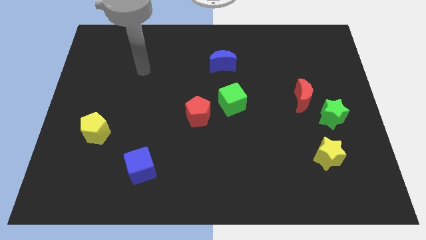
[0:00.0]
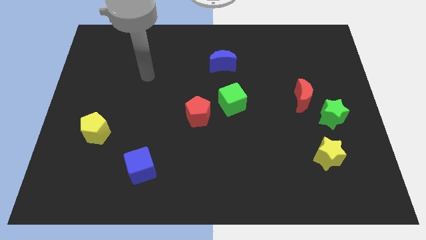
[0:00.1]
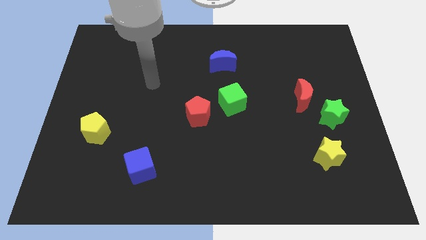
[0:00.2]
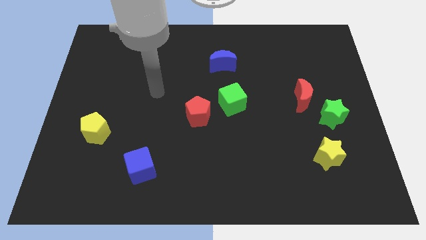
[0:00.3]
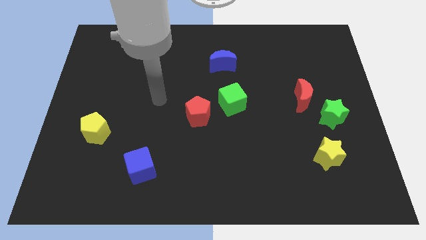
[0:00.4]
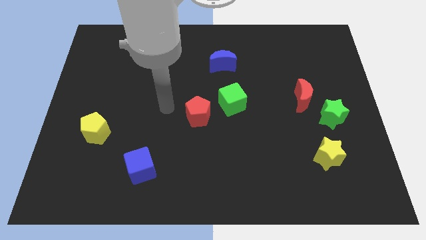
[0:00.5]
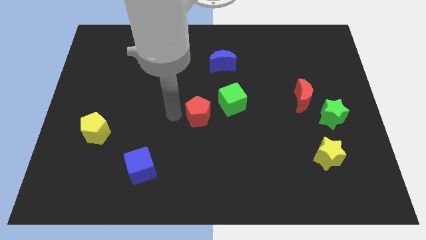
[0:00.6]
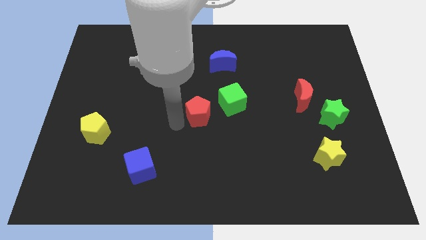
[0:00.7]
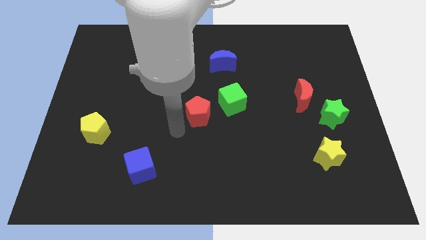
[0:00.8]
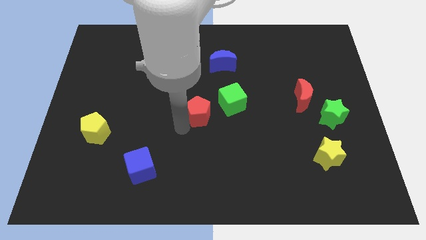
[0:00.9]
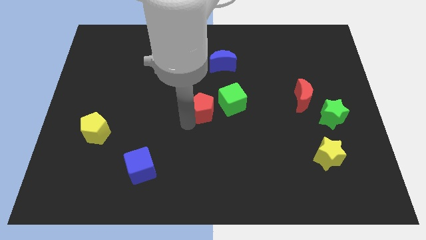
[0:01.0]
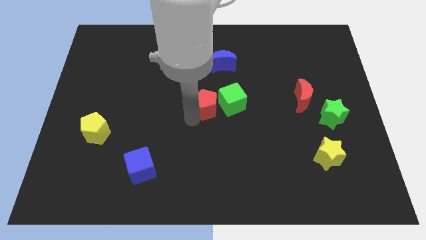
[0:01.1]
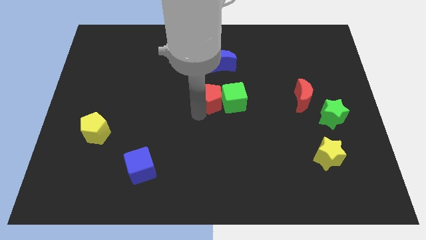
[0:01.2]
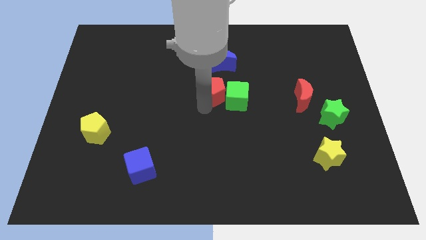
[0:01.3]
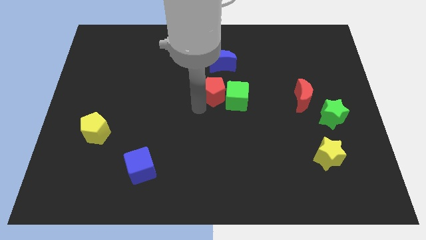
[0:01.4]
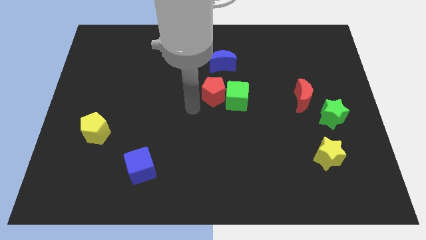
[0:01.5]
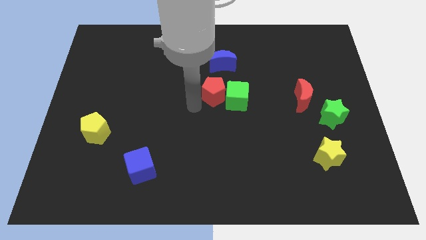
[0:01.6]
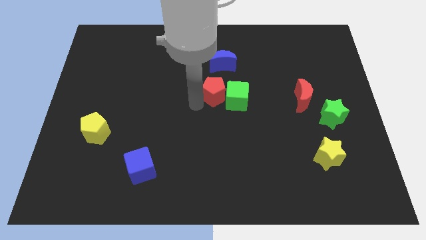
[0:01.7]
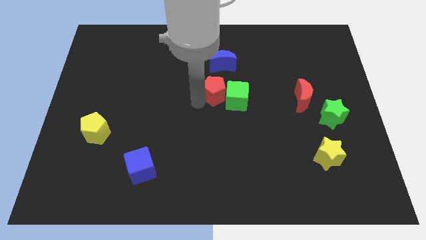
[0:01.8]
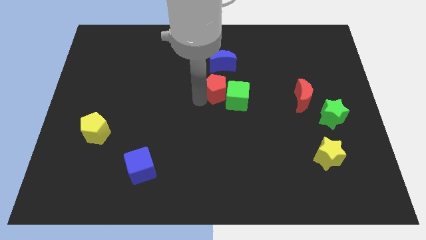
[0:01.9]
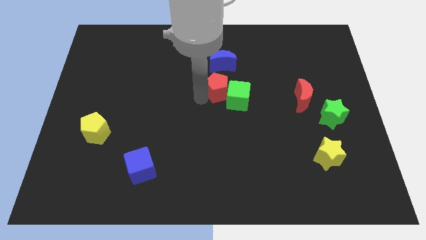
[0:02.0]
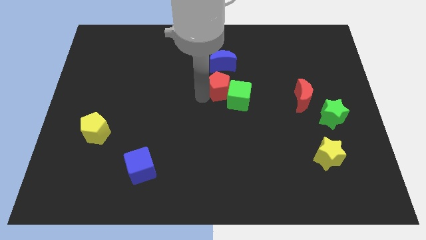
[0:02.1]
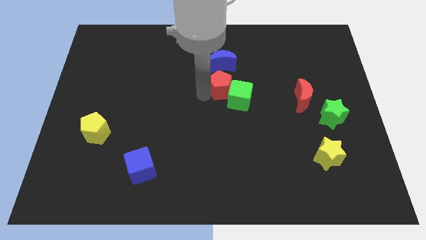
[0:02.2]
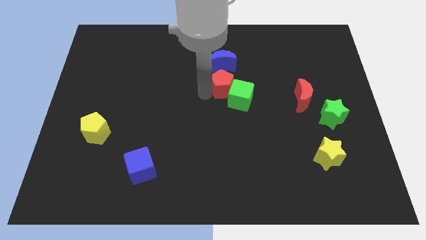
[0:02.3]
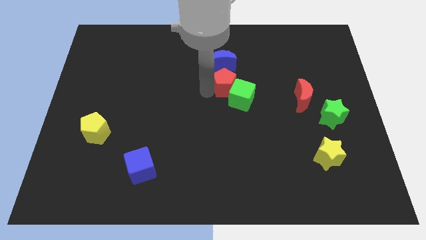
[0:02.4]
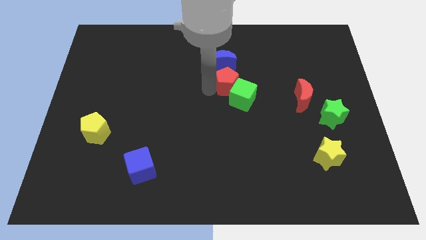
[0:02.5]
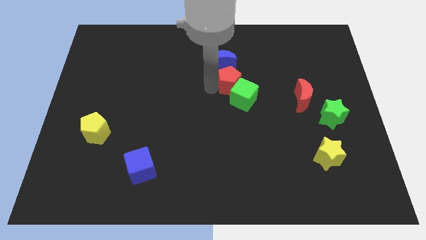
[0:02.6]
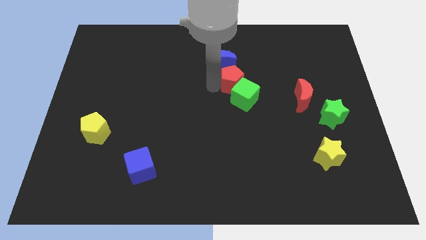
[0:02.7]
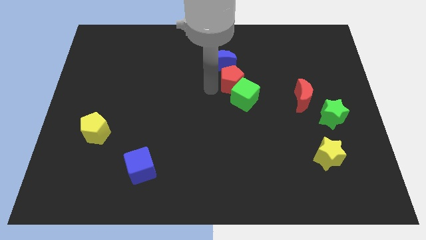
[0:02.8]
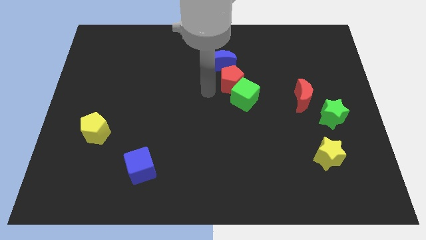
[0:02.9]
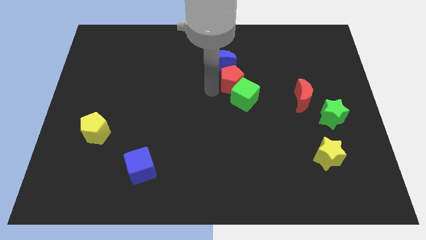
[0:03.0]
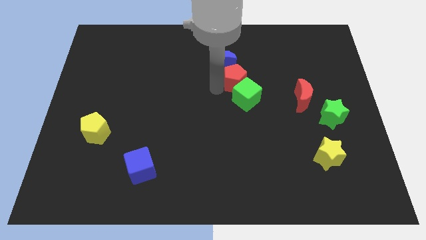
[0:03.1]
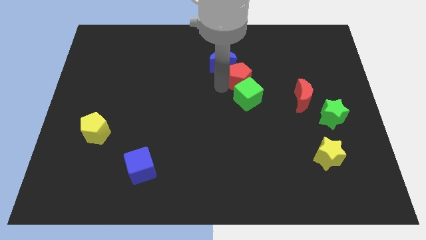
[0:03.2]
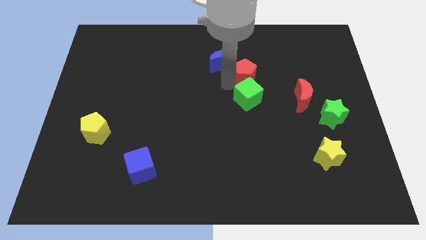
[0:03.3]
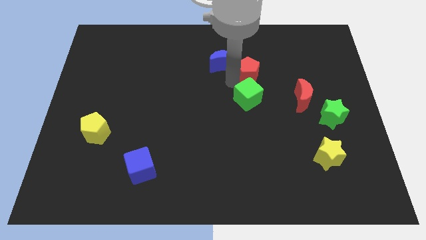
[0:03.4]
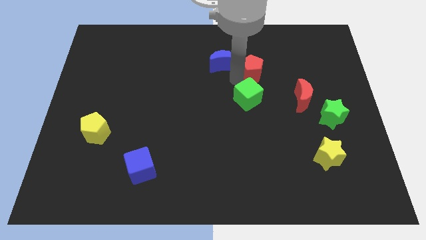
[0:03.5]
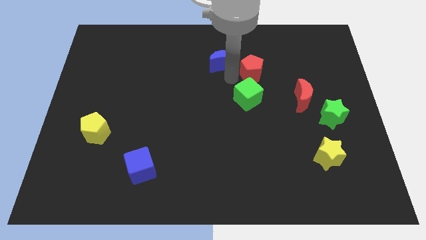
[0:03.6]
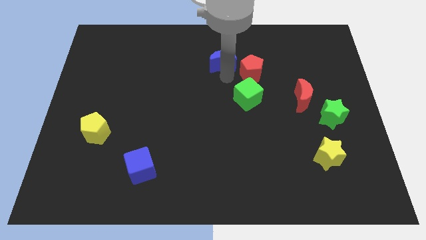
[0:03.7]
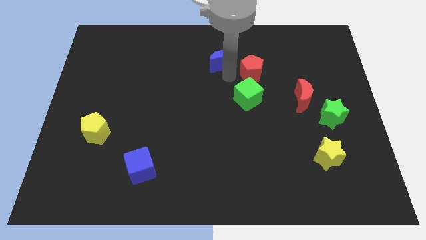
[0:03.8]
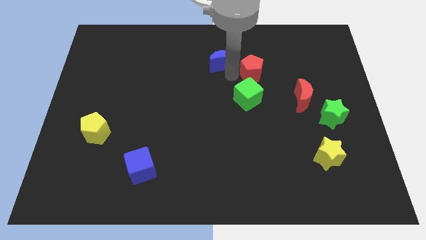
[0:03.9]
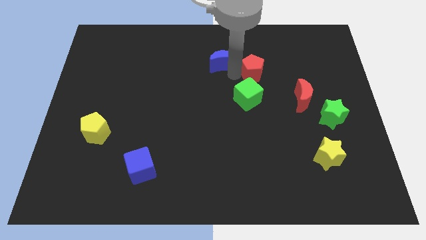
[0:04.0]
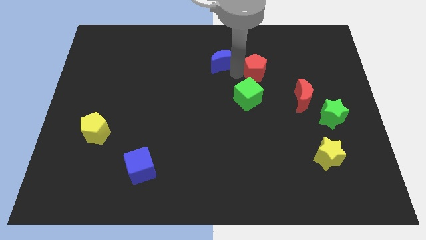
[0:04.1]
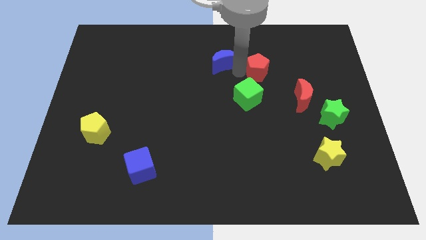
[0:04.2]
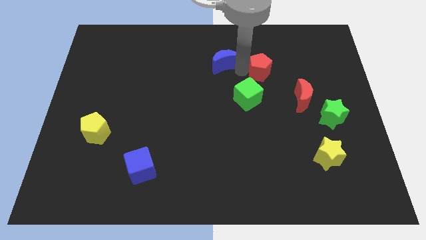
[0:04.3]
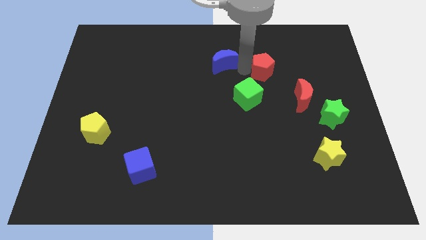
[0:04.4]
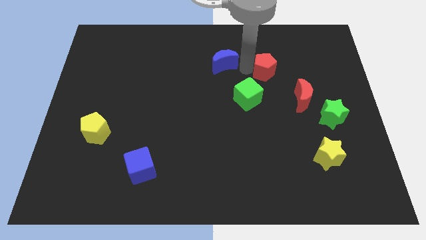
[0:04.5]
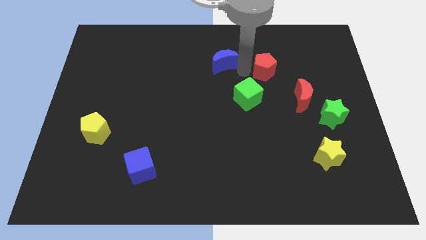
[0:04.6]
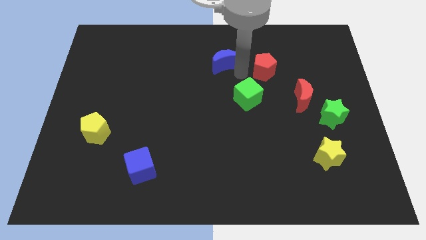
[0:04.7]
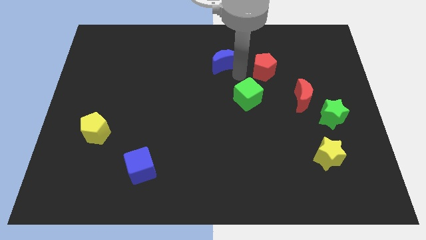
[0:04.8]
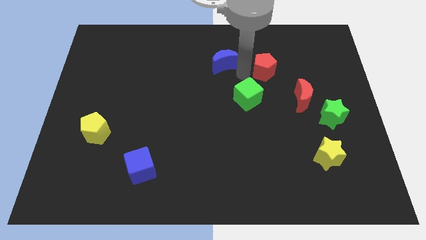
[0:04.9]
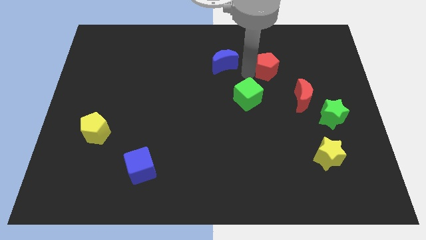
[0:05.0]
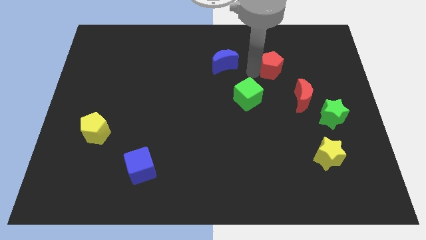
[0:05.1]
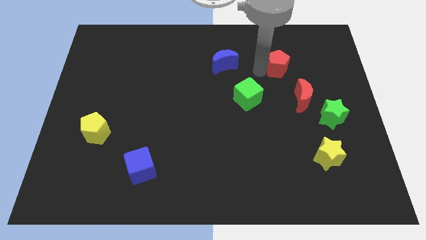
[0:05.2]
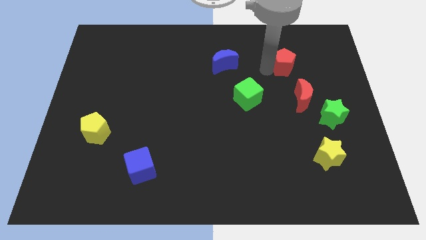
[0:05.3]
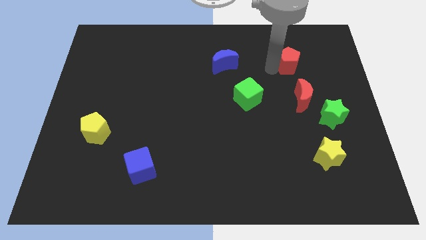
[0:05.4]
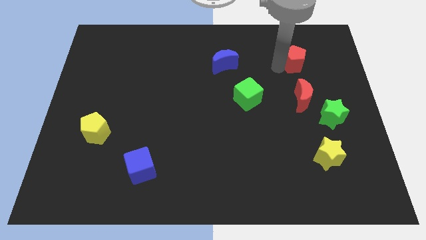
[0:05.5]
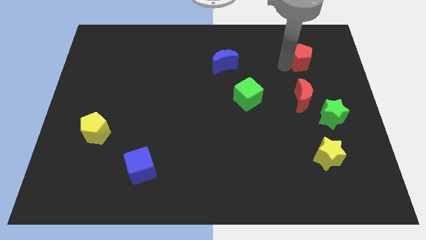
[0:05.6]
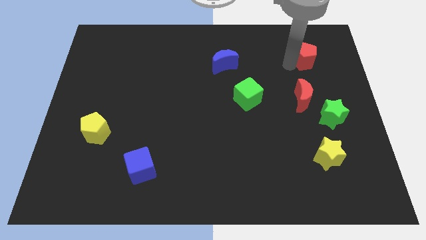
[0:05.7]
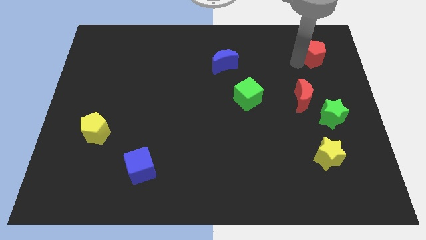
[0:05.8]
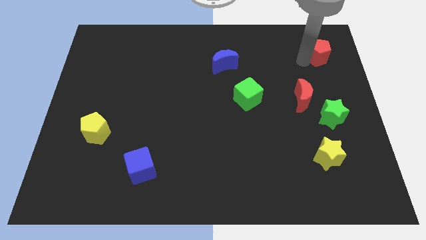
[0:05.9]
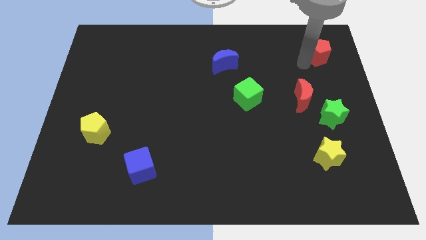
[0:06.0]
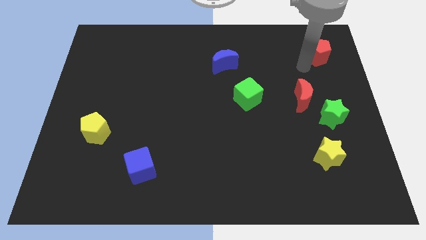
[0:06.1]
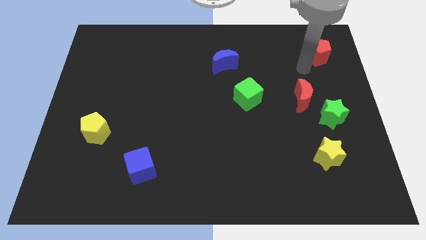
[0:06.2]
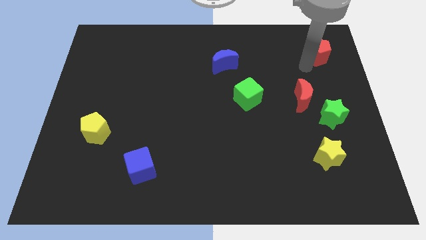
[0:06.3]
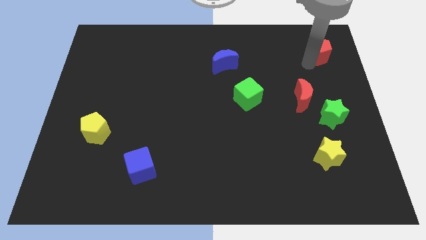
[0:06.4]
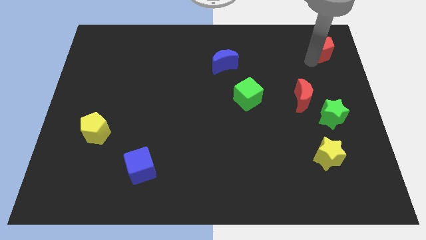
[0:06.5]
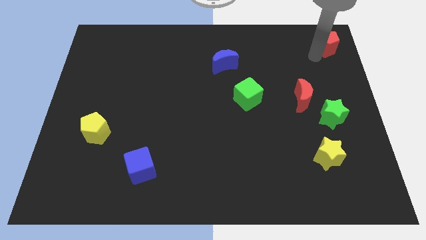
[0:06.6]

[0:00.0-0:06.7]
slide the red pentagon to the top right

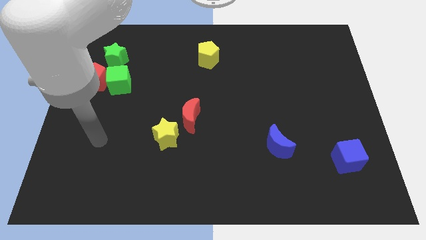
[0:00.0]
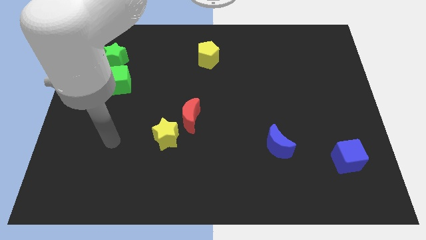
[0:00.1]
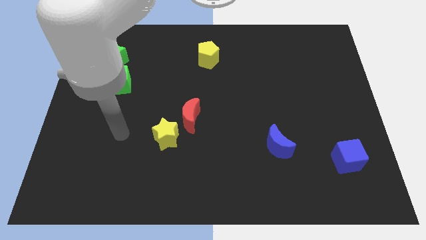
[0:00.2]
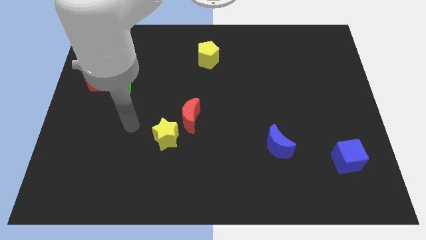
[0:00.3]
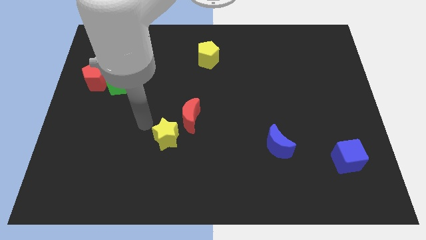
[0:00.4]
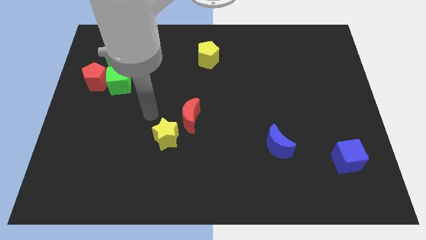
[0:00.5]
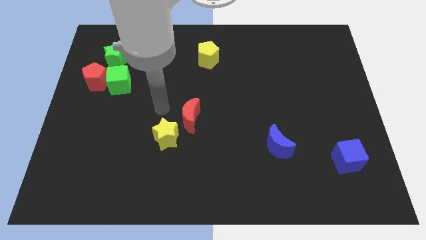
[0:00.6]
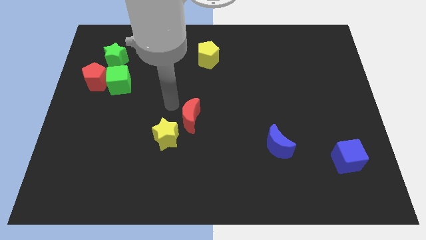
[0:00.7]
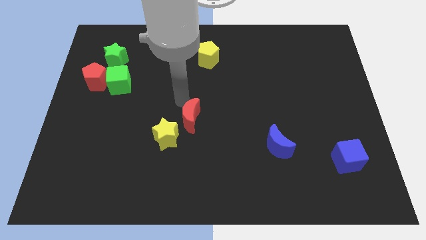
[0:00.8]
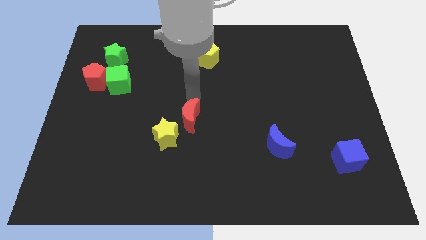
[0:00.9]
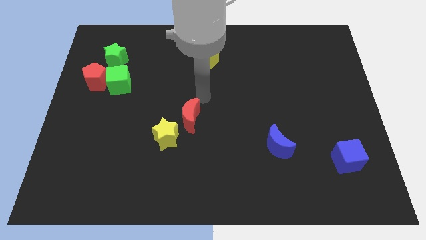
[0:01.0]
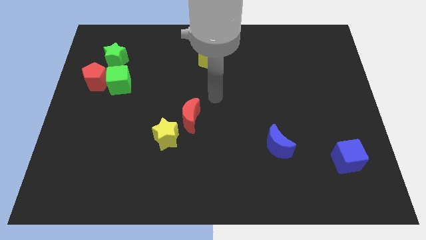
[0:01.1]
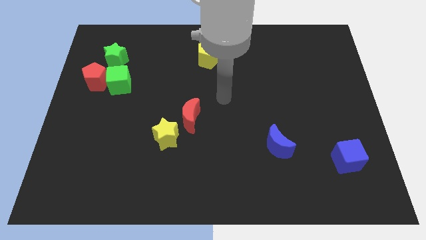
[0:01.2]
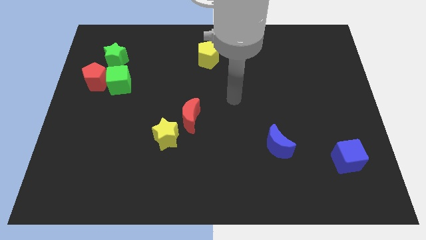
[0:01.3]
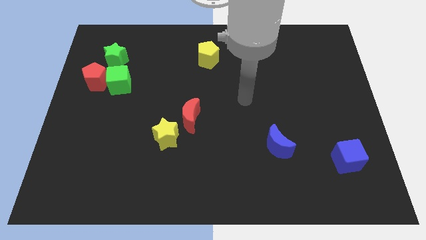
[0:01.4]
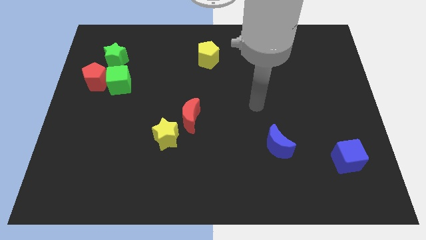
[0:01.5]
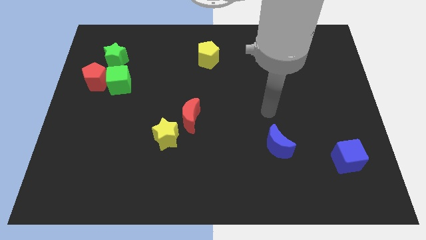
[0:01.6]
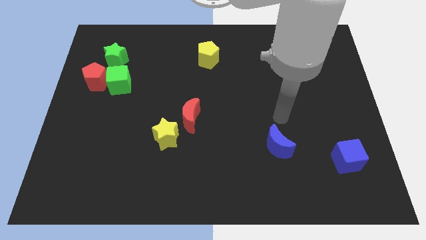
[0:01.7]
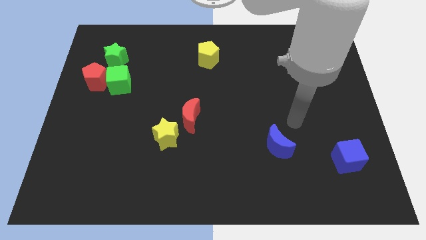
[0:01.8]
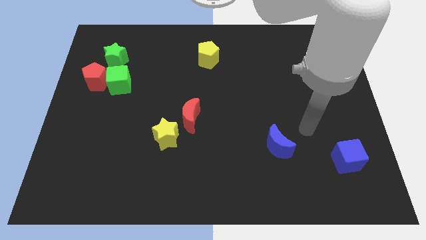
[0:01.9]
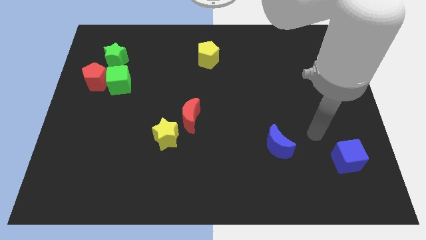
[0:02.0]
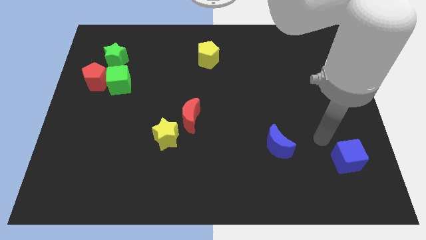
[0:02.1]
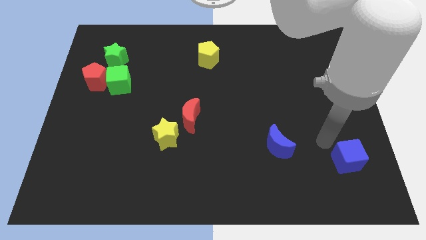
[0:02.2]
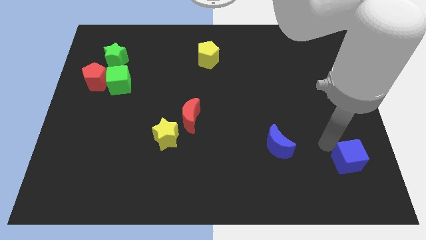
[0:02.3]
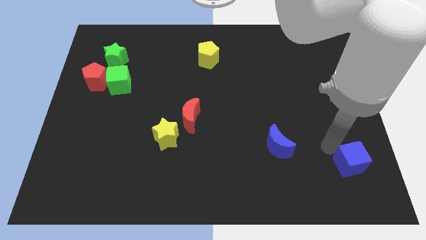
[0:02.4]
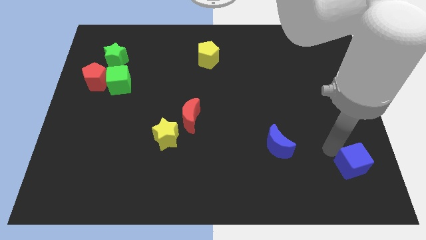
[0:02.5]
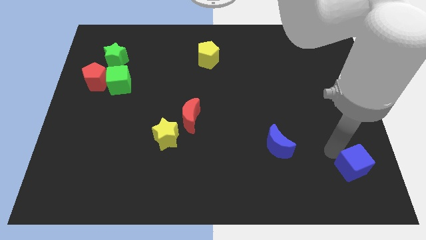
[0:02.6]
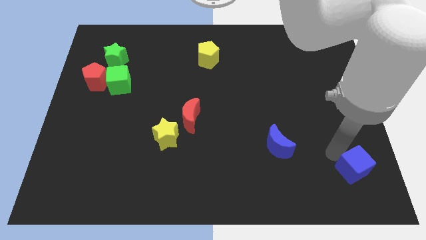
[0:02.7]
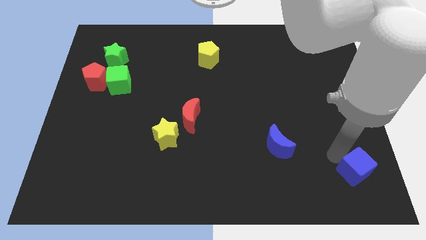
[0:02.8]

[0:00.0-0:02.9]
push the blue cube to the bottom right
